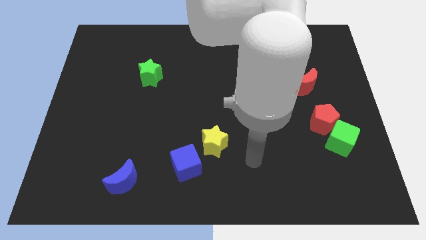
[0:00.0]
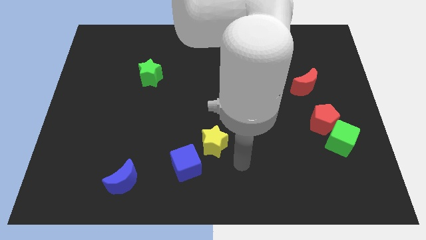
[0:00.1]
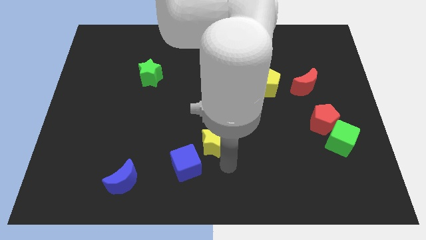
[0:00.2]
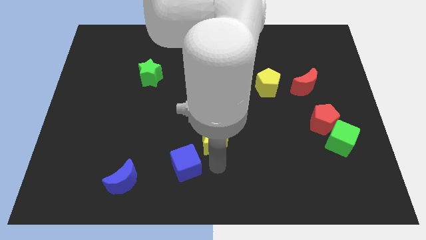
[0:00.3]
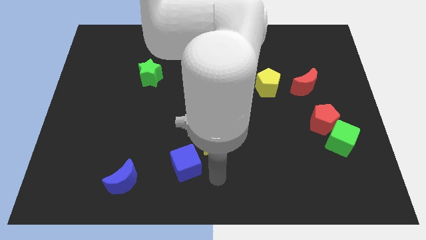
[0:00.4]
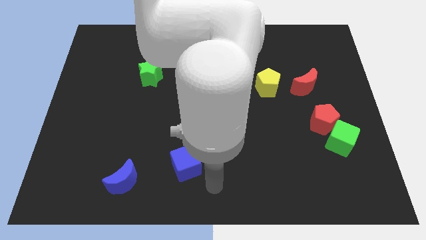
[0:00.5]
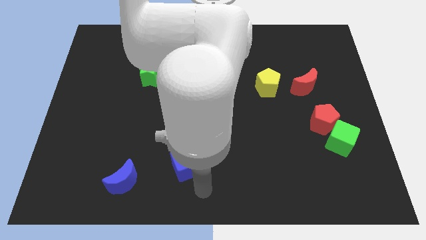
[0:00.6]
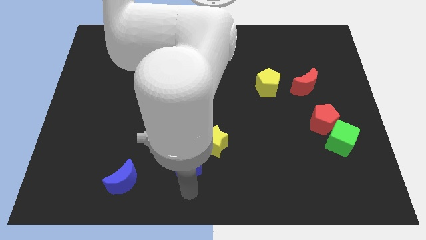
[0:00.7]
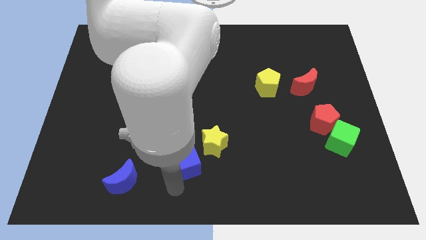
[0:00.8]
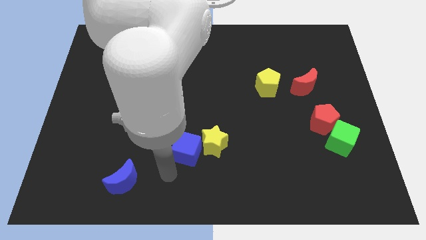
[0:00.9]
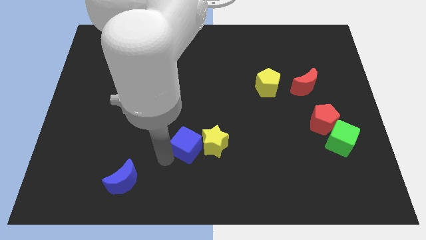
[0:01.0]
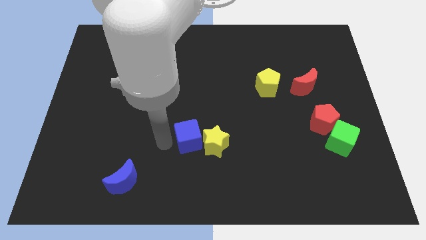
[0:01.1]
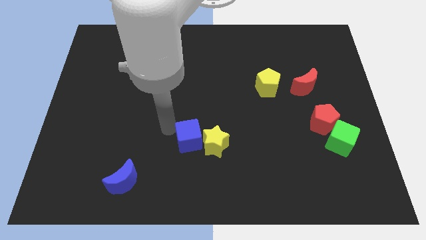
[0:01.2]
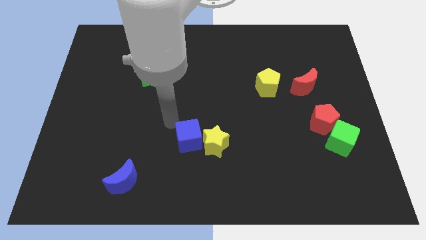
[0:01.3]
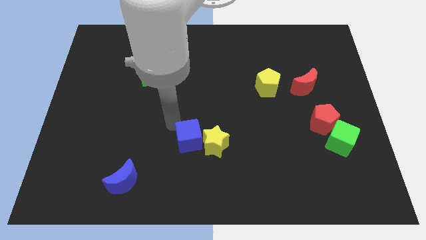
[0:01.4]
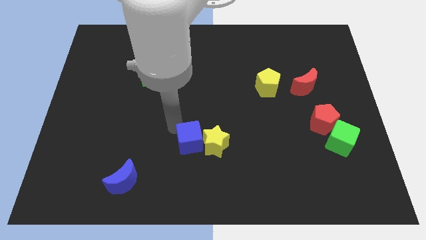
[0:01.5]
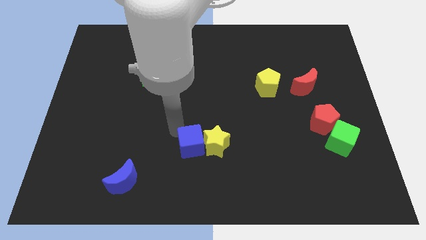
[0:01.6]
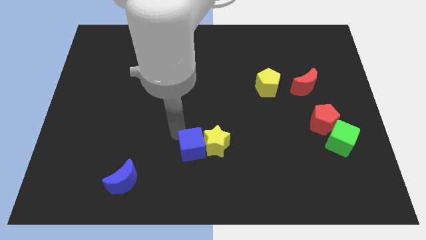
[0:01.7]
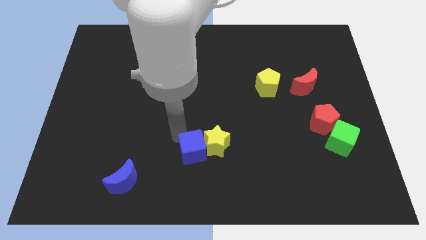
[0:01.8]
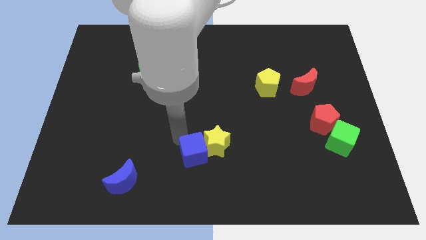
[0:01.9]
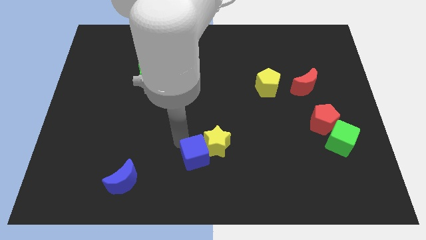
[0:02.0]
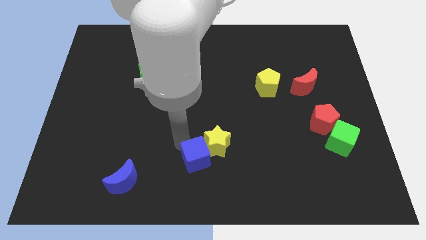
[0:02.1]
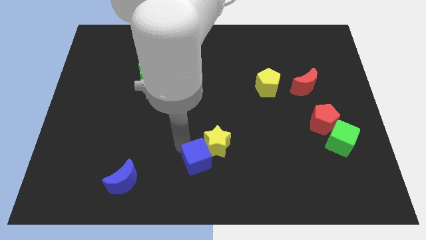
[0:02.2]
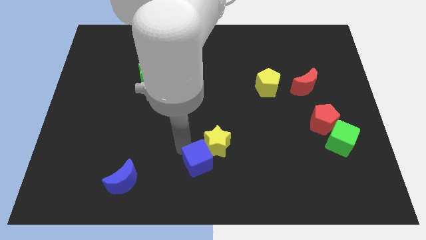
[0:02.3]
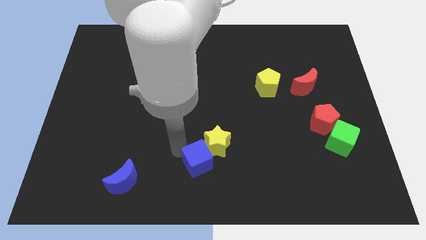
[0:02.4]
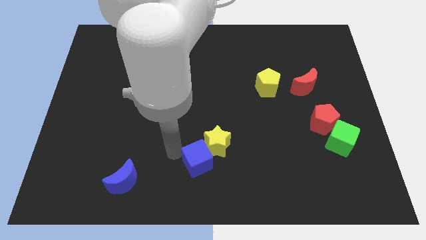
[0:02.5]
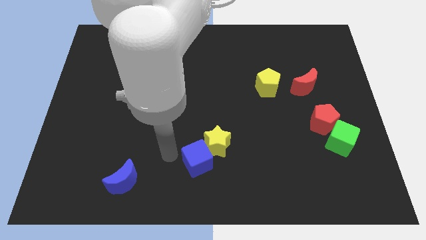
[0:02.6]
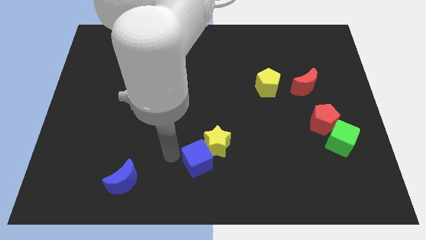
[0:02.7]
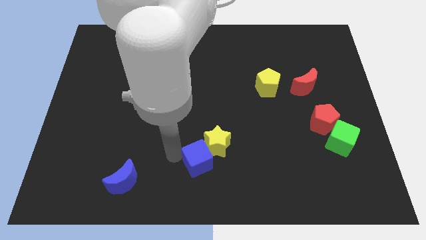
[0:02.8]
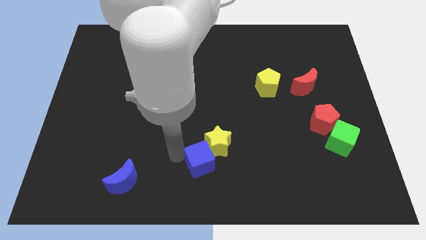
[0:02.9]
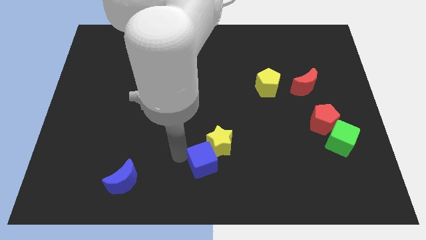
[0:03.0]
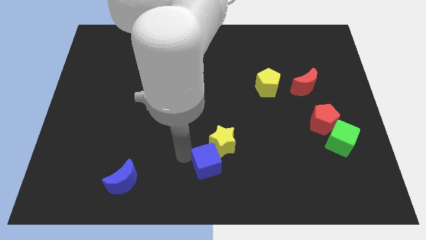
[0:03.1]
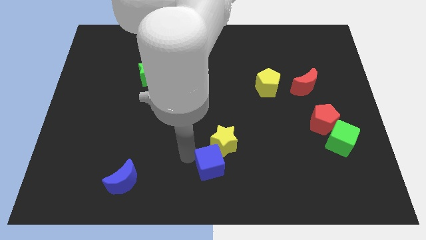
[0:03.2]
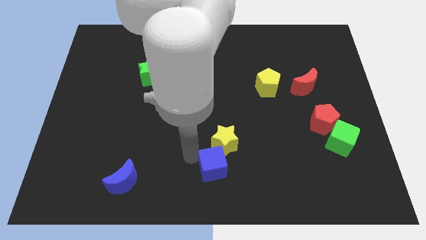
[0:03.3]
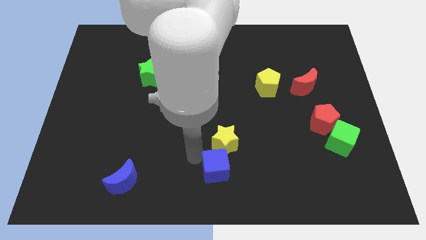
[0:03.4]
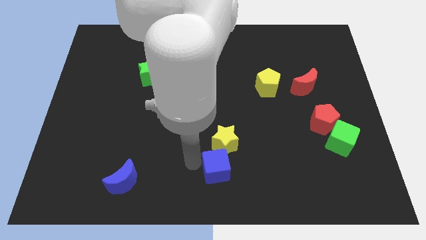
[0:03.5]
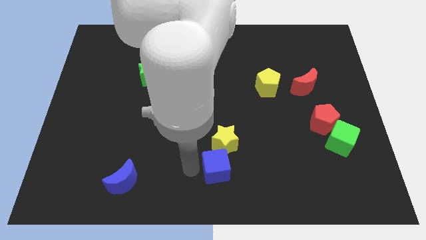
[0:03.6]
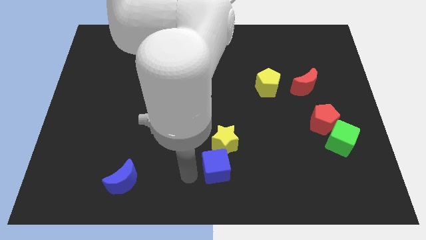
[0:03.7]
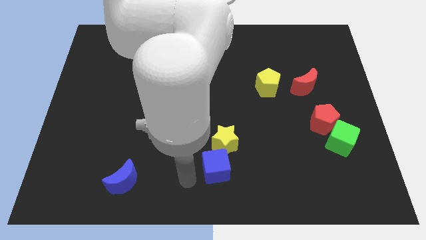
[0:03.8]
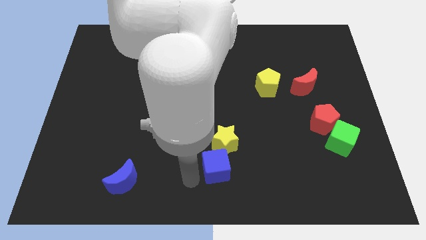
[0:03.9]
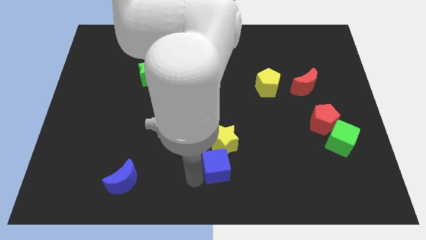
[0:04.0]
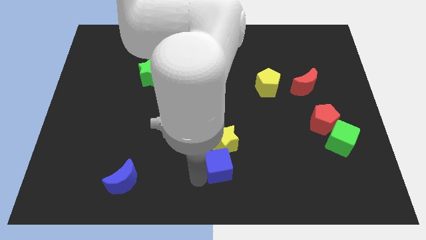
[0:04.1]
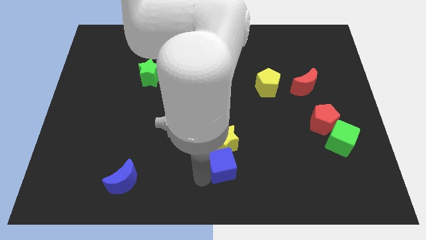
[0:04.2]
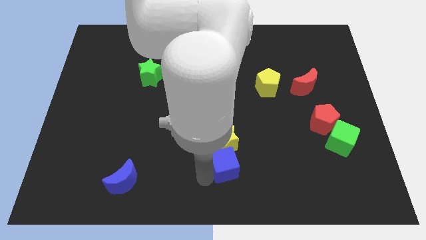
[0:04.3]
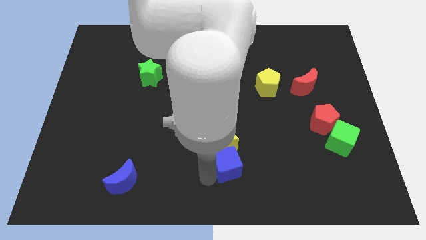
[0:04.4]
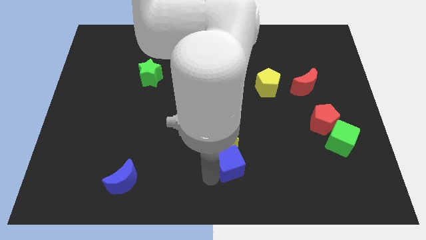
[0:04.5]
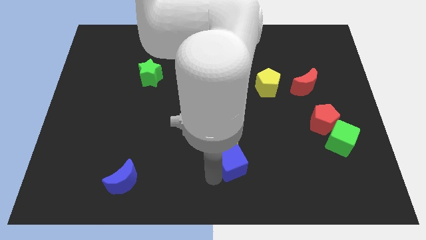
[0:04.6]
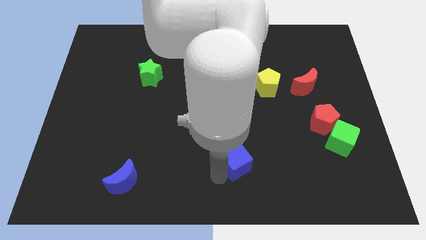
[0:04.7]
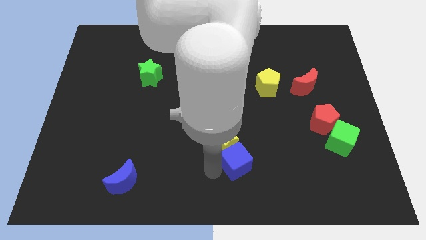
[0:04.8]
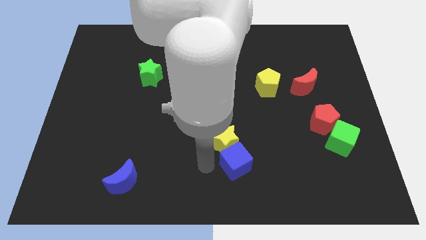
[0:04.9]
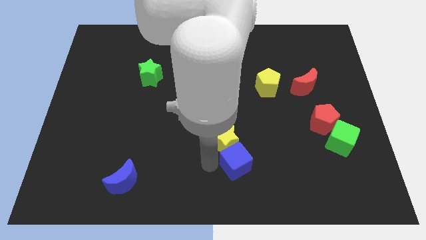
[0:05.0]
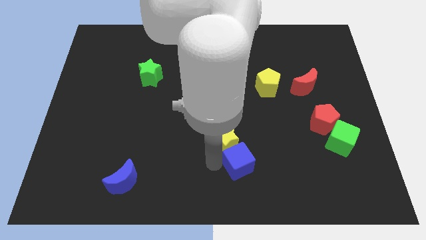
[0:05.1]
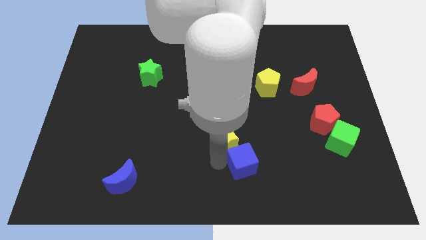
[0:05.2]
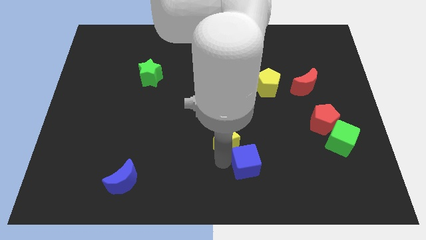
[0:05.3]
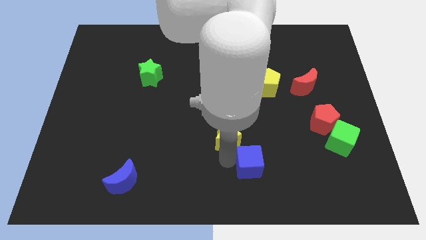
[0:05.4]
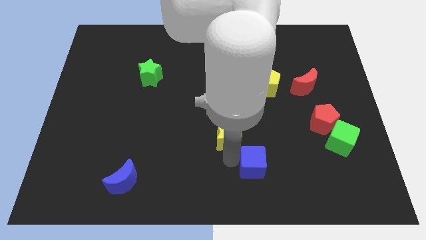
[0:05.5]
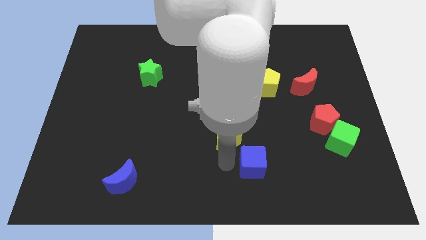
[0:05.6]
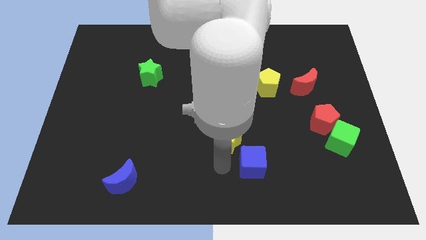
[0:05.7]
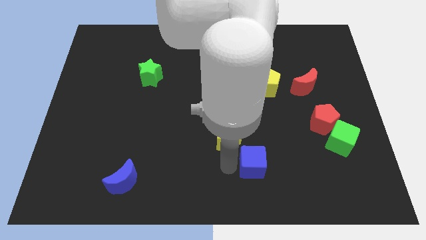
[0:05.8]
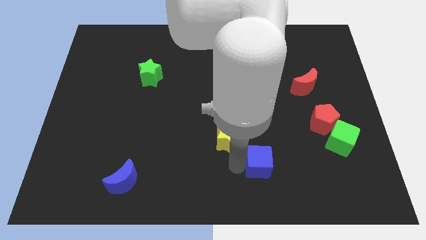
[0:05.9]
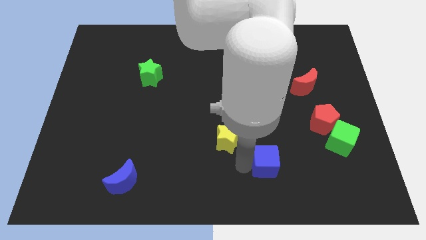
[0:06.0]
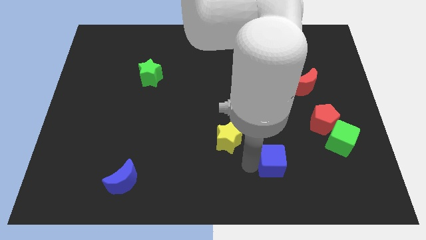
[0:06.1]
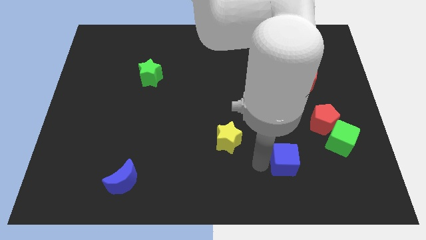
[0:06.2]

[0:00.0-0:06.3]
move the blue cube to the right

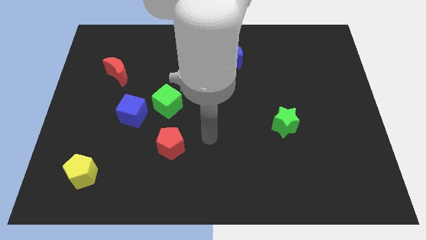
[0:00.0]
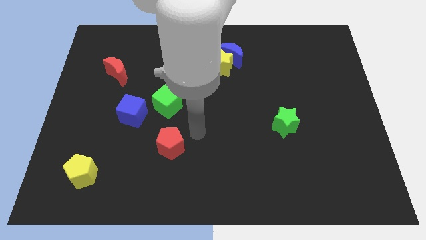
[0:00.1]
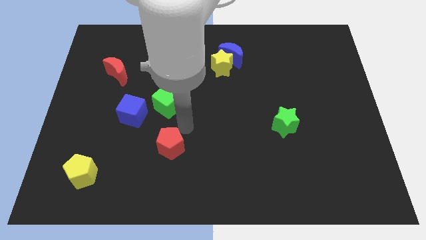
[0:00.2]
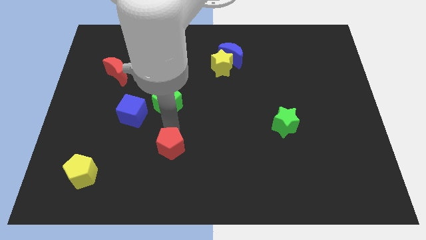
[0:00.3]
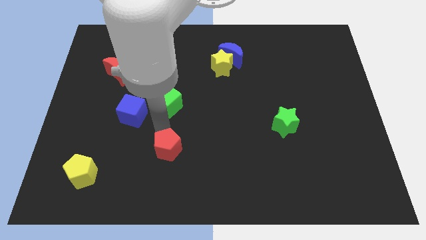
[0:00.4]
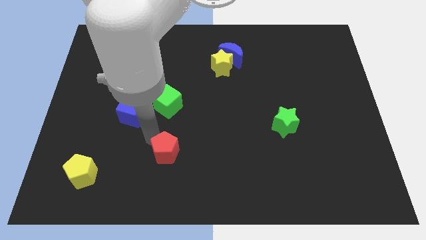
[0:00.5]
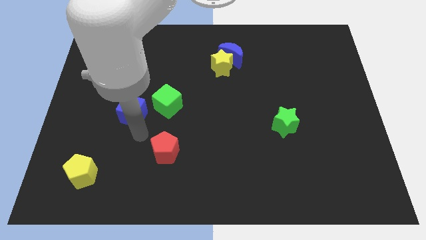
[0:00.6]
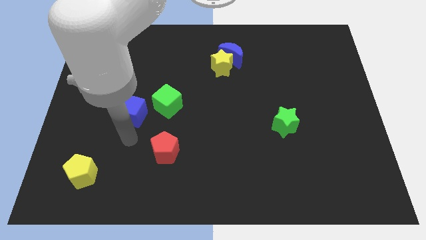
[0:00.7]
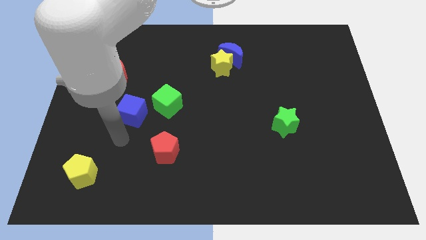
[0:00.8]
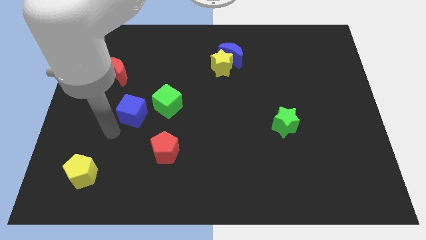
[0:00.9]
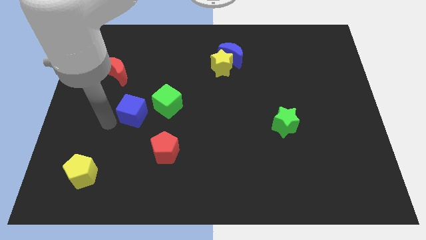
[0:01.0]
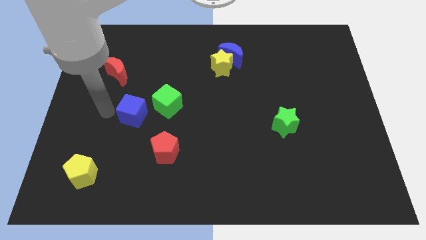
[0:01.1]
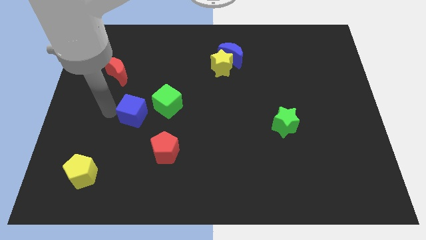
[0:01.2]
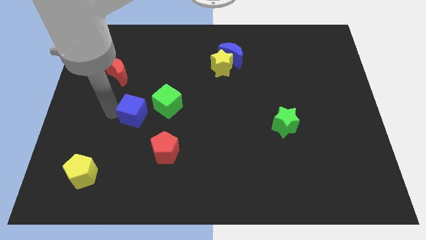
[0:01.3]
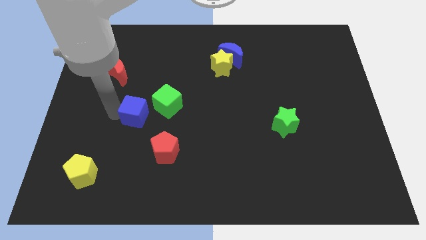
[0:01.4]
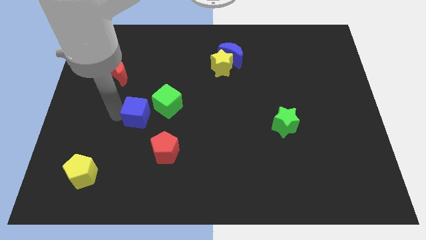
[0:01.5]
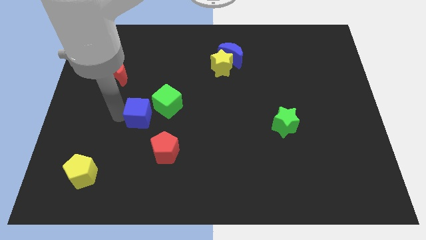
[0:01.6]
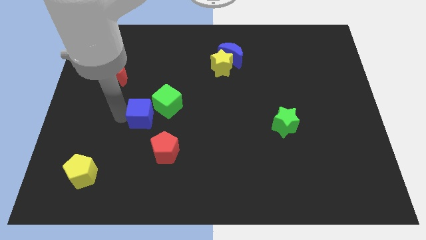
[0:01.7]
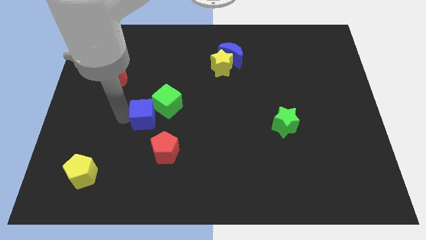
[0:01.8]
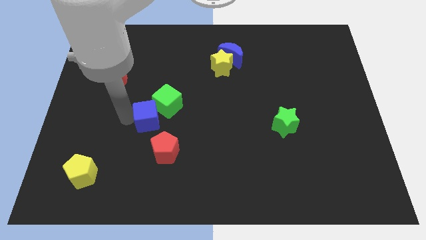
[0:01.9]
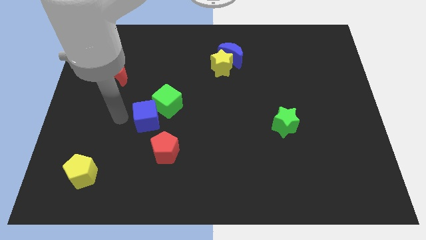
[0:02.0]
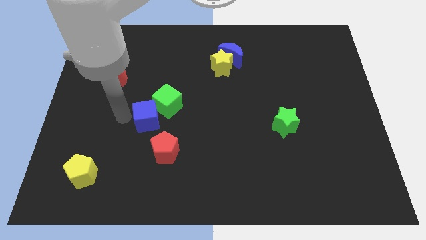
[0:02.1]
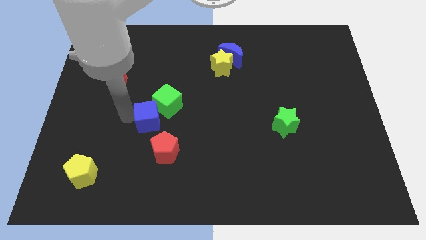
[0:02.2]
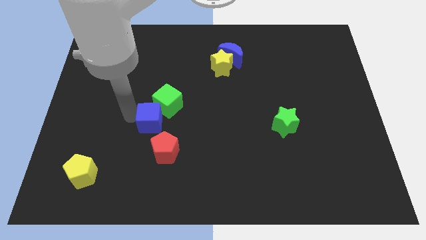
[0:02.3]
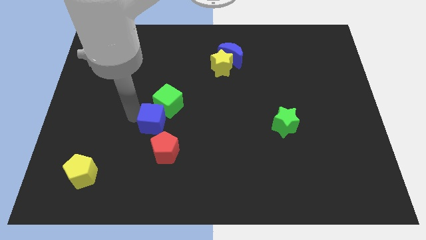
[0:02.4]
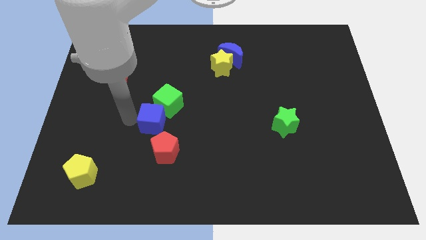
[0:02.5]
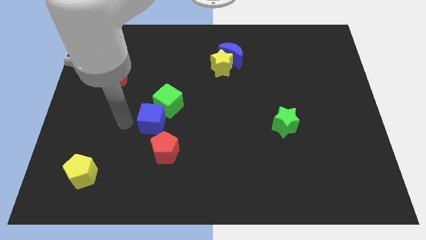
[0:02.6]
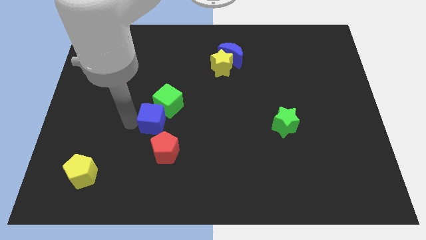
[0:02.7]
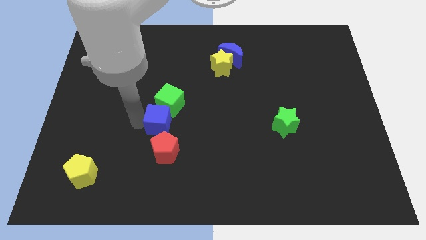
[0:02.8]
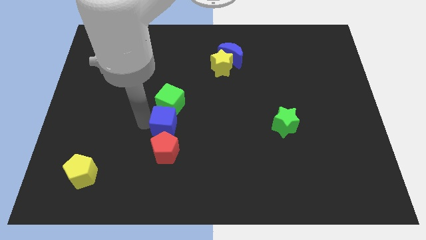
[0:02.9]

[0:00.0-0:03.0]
push the blue cube right somewhat
